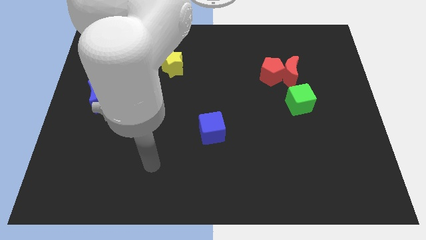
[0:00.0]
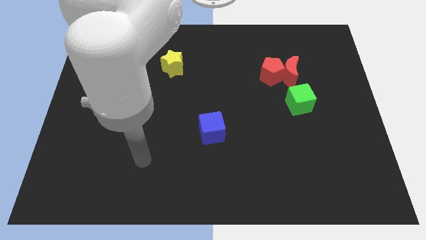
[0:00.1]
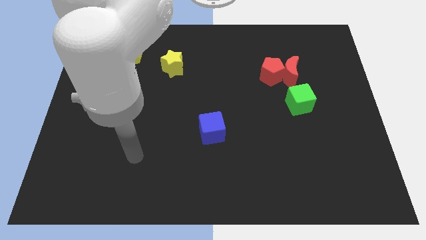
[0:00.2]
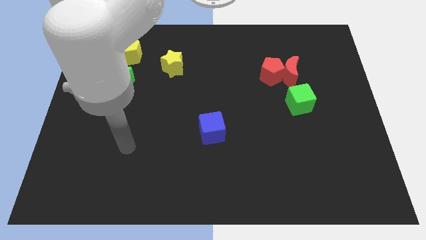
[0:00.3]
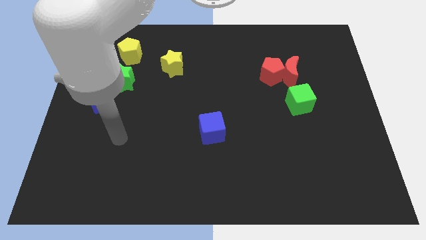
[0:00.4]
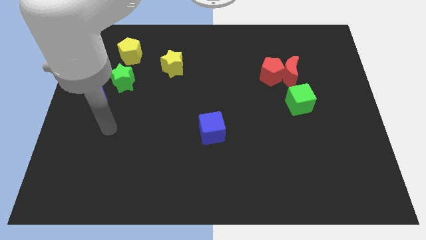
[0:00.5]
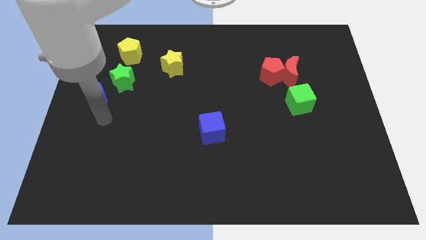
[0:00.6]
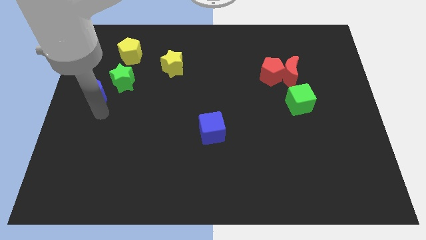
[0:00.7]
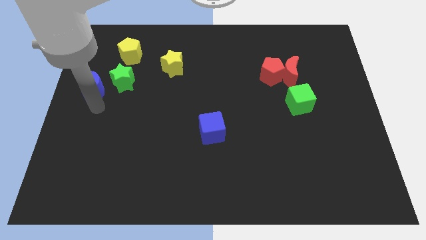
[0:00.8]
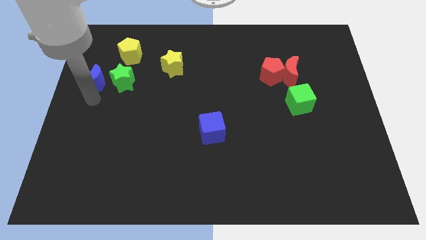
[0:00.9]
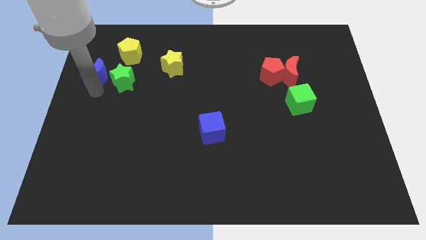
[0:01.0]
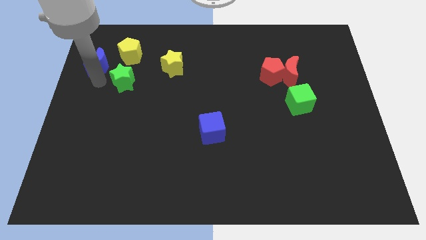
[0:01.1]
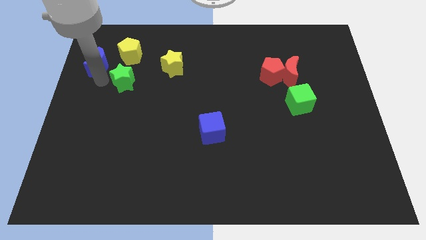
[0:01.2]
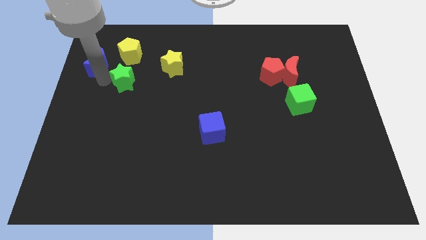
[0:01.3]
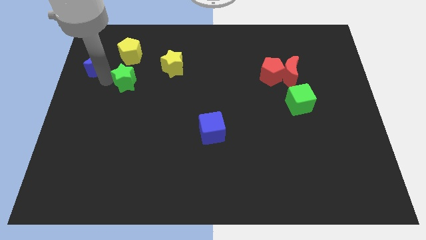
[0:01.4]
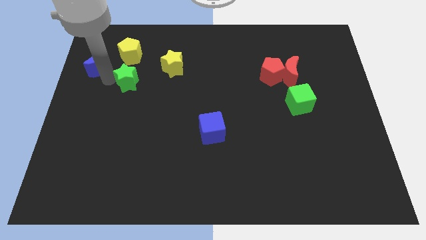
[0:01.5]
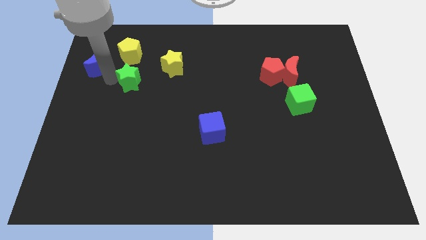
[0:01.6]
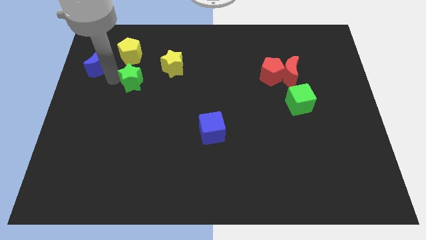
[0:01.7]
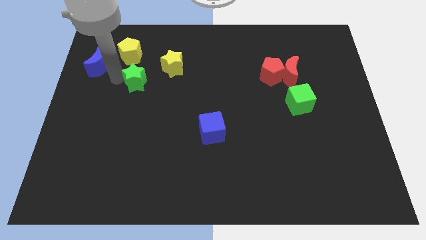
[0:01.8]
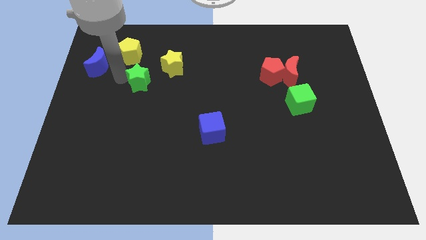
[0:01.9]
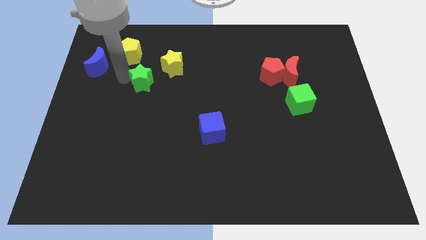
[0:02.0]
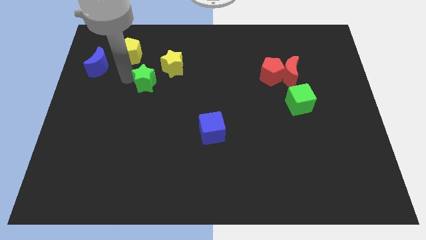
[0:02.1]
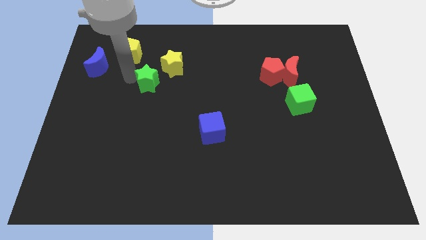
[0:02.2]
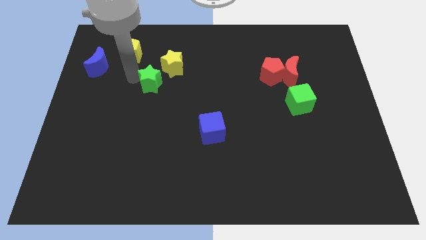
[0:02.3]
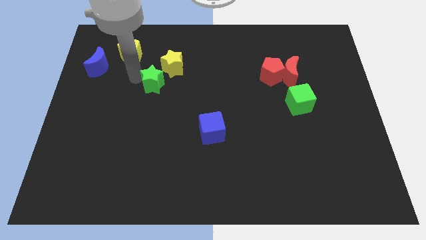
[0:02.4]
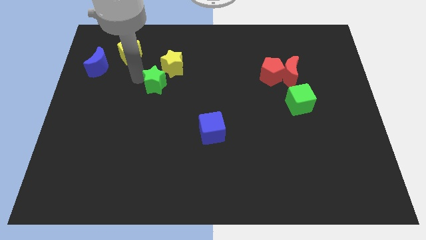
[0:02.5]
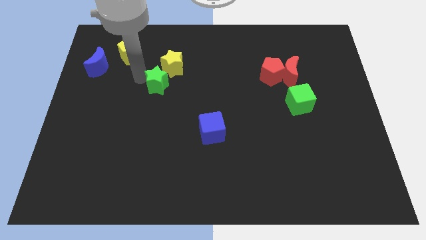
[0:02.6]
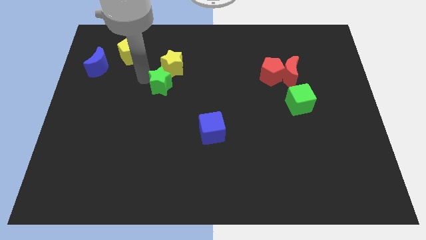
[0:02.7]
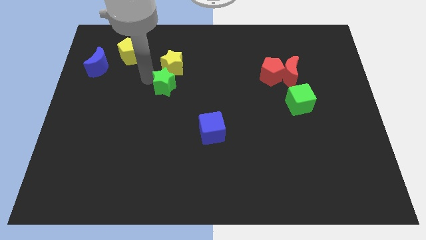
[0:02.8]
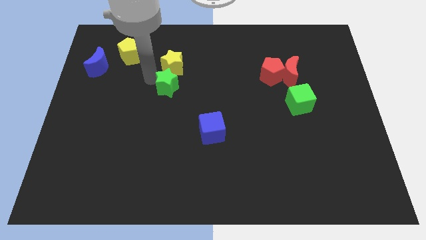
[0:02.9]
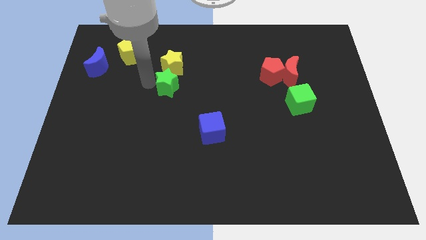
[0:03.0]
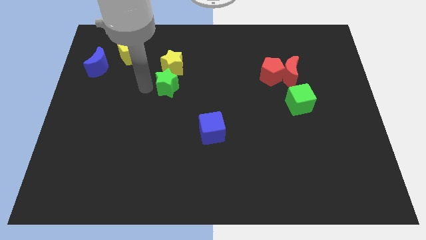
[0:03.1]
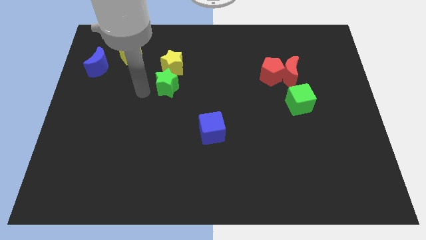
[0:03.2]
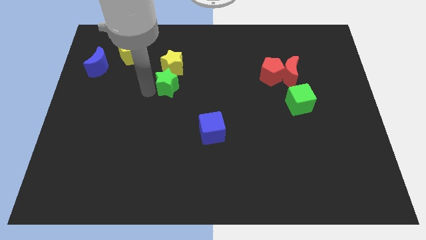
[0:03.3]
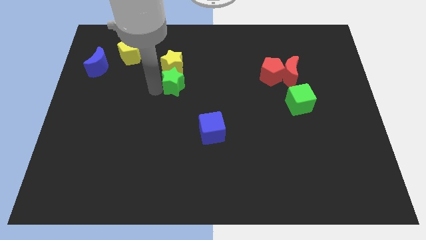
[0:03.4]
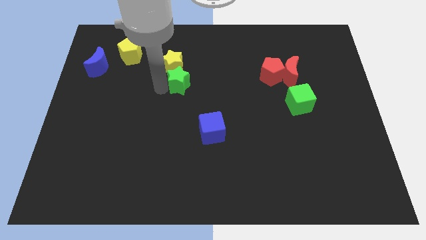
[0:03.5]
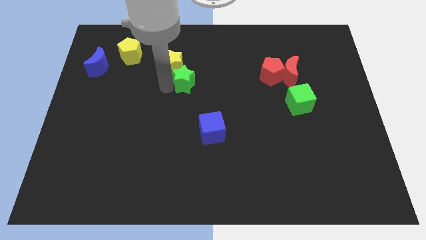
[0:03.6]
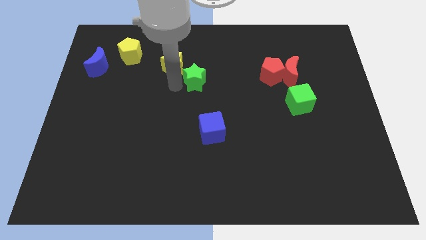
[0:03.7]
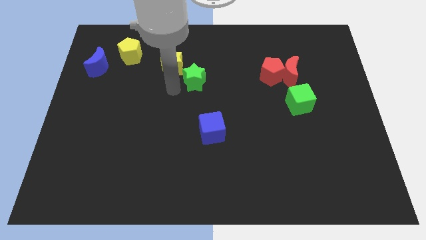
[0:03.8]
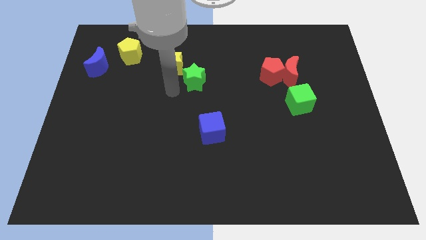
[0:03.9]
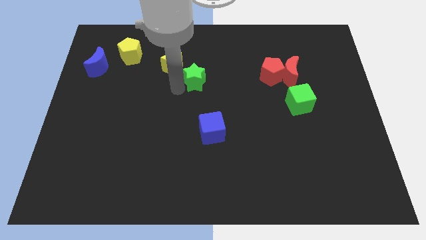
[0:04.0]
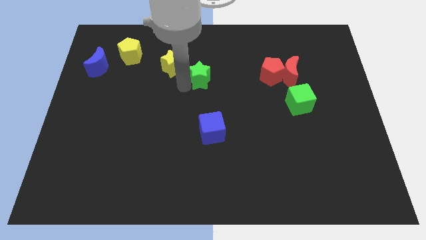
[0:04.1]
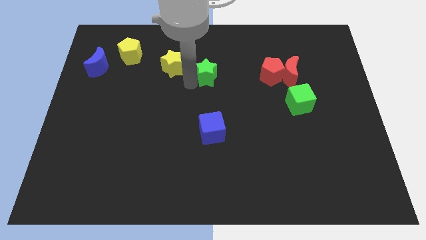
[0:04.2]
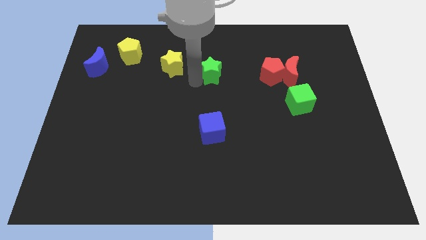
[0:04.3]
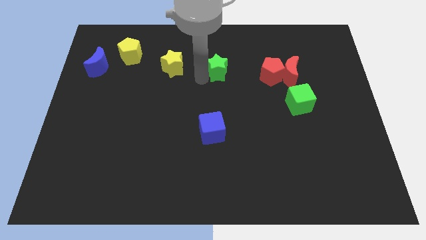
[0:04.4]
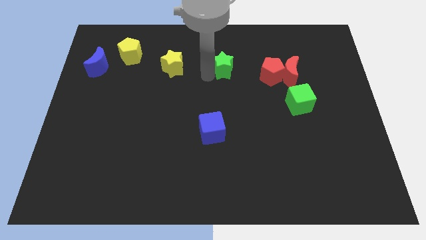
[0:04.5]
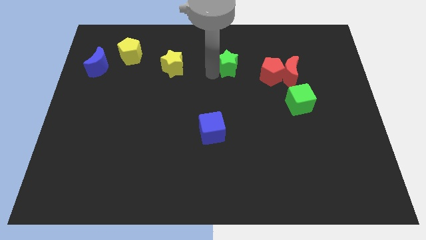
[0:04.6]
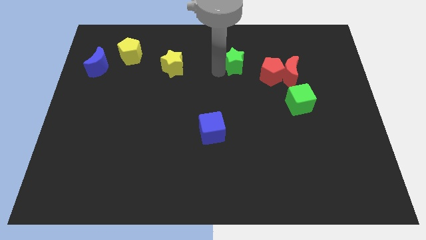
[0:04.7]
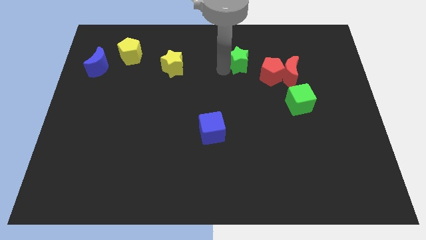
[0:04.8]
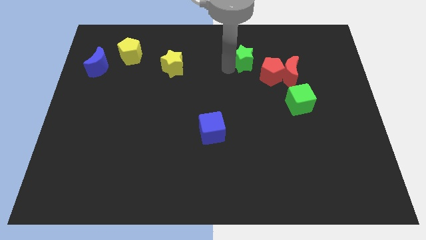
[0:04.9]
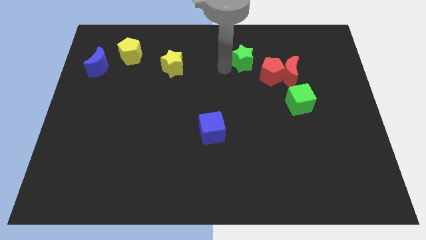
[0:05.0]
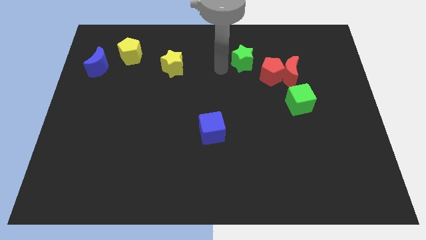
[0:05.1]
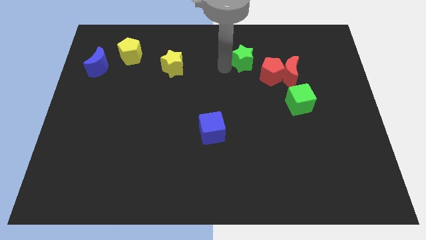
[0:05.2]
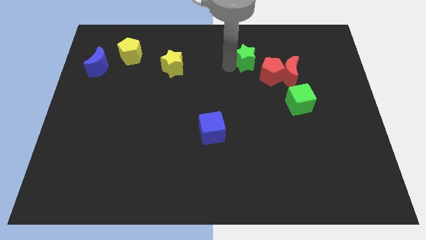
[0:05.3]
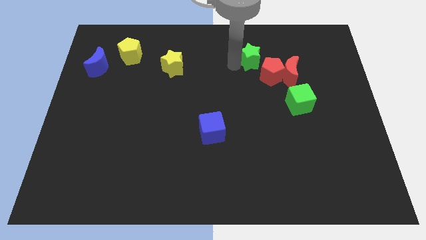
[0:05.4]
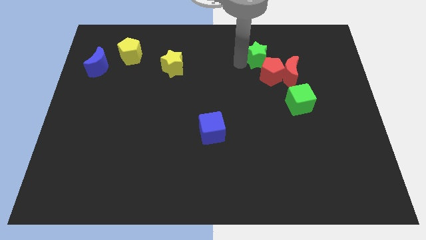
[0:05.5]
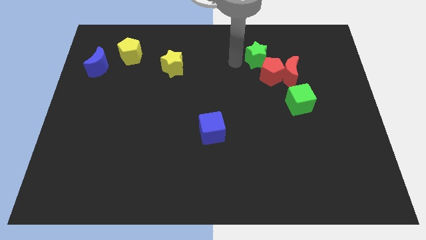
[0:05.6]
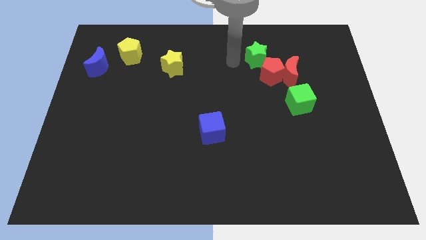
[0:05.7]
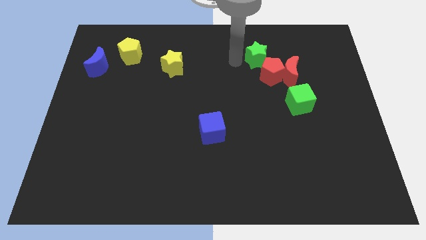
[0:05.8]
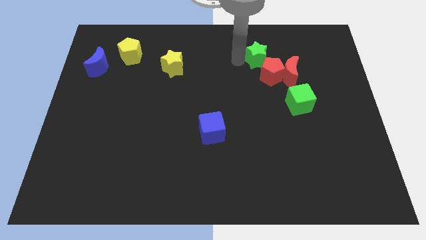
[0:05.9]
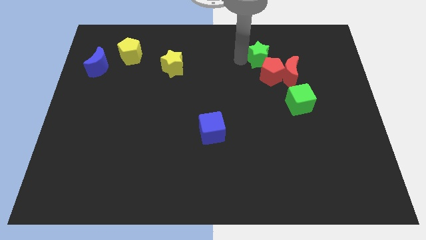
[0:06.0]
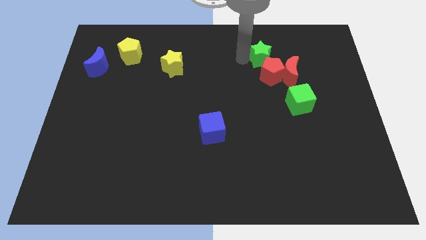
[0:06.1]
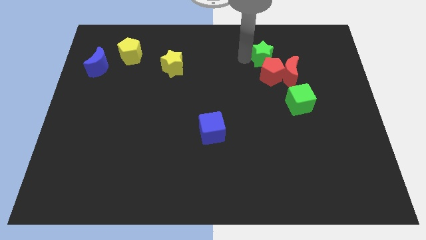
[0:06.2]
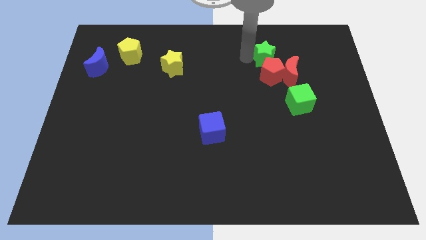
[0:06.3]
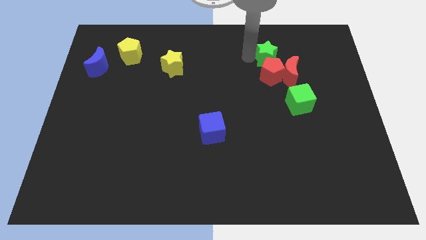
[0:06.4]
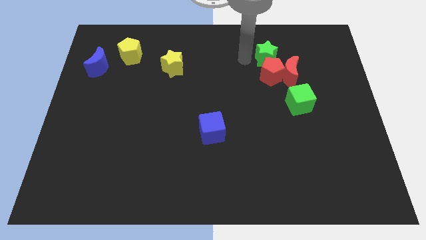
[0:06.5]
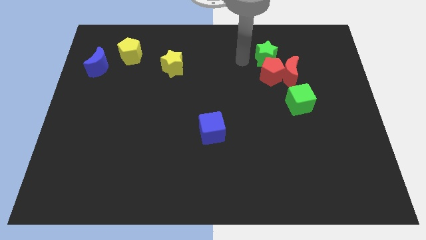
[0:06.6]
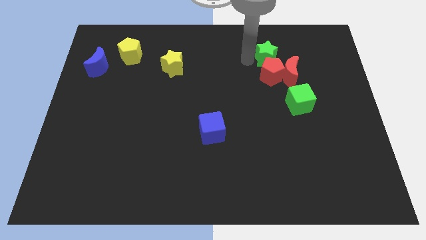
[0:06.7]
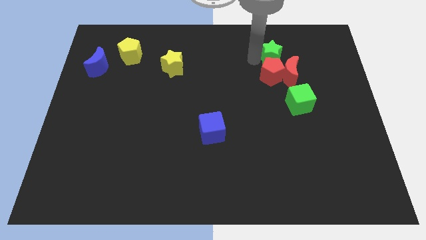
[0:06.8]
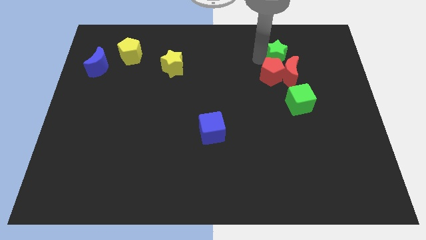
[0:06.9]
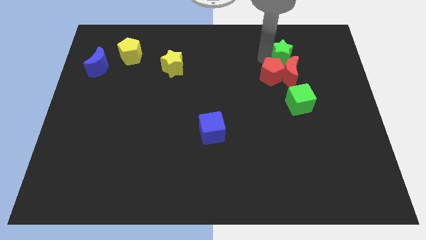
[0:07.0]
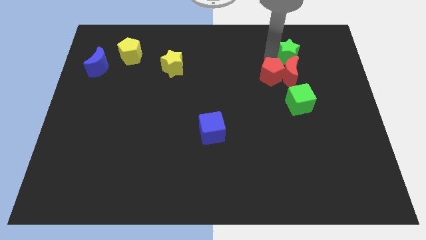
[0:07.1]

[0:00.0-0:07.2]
push the green star diagonally up and to the right of the red moon
